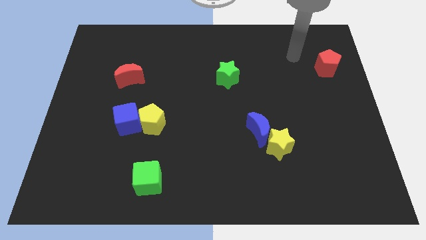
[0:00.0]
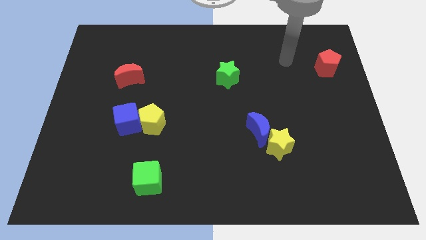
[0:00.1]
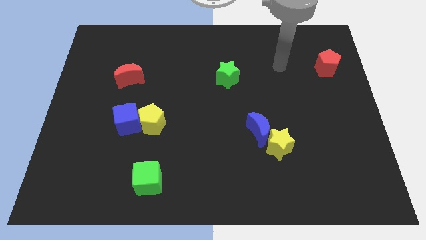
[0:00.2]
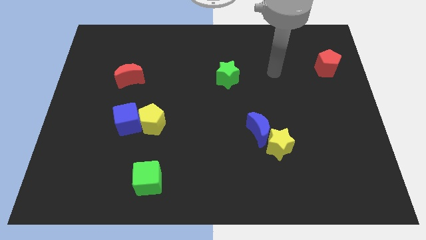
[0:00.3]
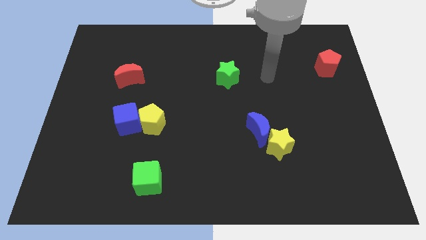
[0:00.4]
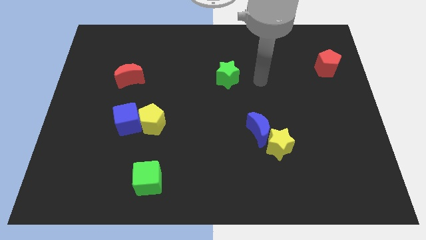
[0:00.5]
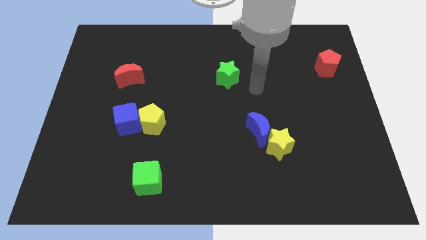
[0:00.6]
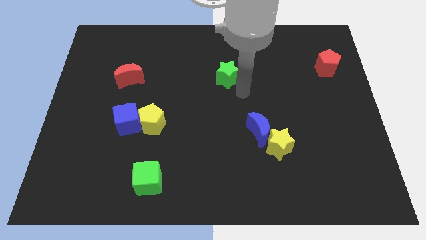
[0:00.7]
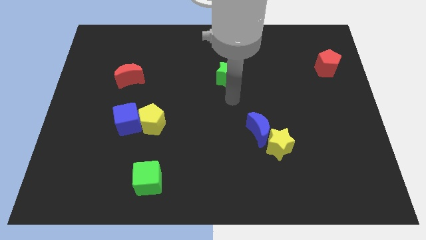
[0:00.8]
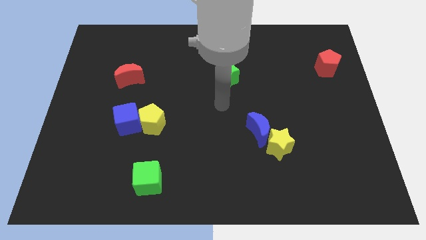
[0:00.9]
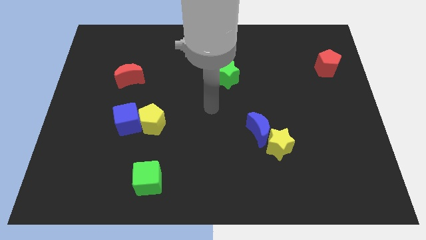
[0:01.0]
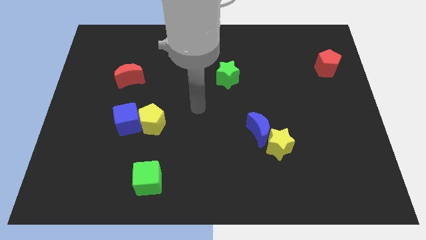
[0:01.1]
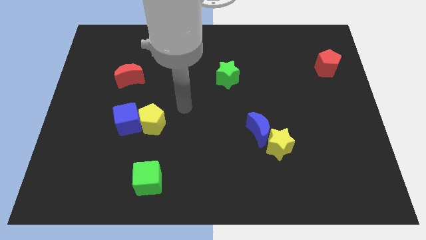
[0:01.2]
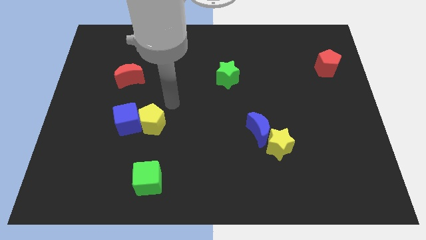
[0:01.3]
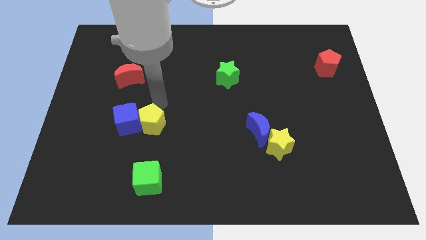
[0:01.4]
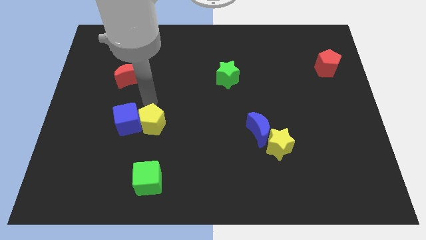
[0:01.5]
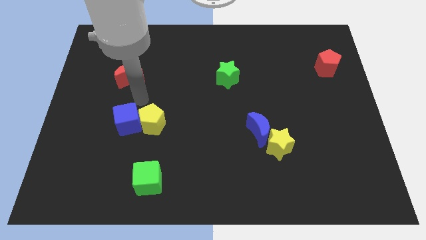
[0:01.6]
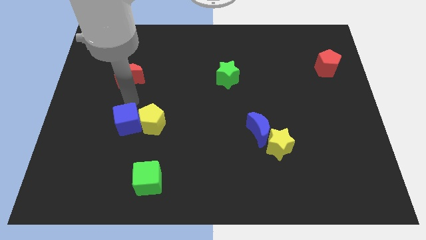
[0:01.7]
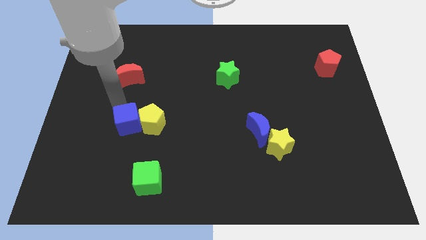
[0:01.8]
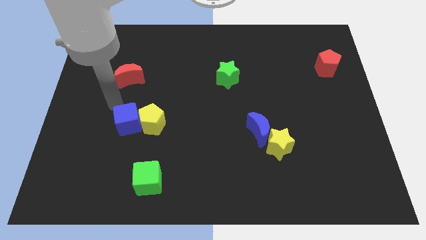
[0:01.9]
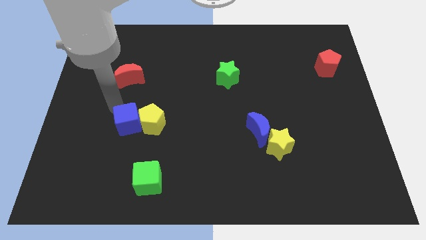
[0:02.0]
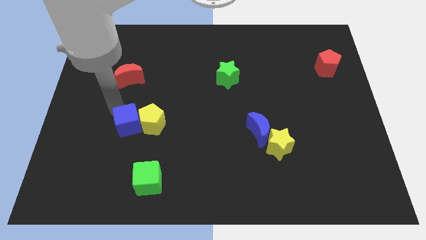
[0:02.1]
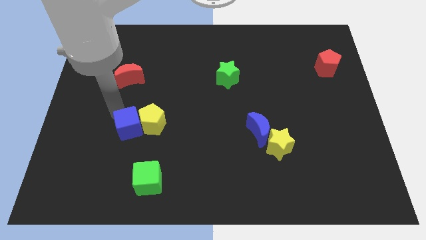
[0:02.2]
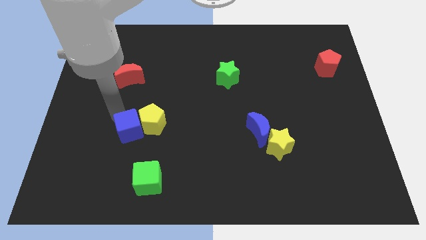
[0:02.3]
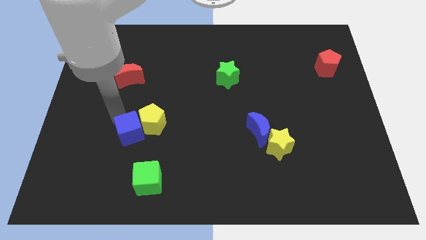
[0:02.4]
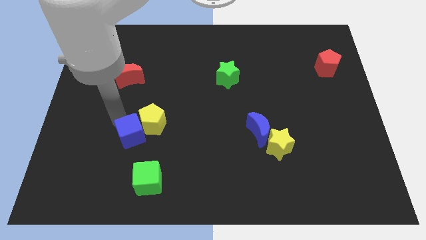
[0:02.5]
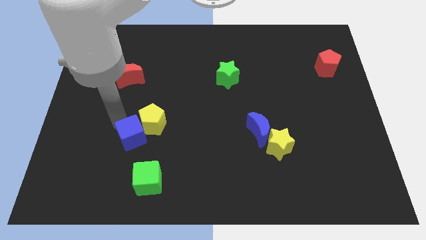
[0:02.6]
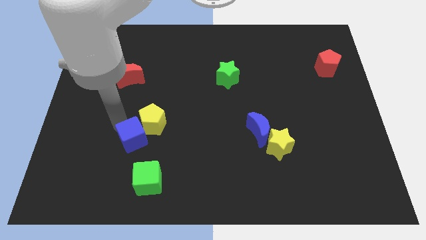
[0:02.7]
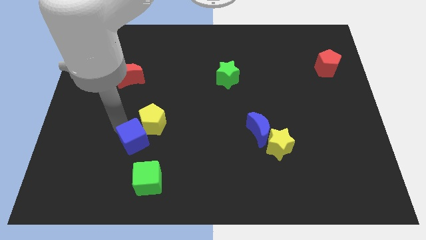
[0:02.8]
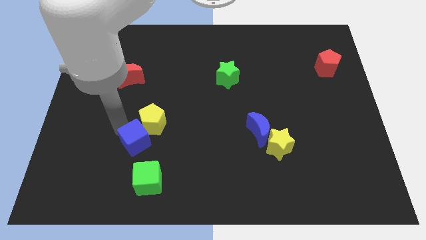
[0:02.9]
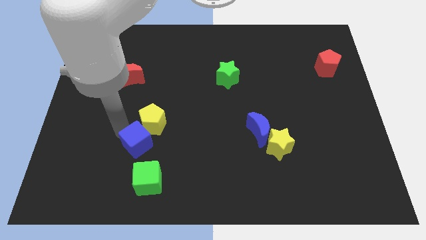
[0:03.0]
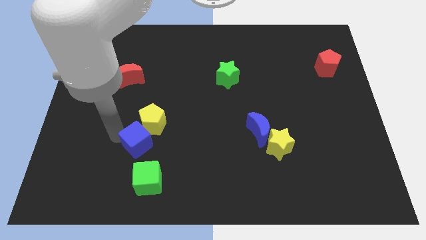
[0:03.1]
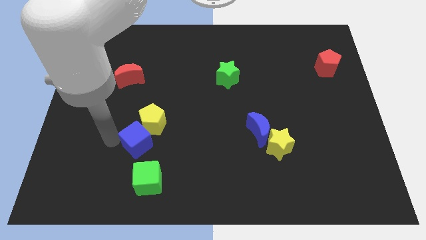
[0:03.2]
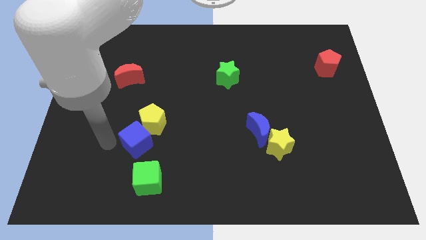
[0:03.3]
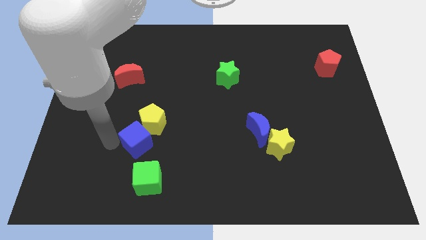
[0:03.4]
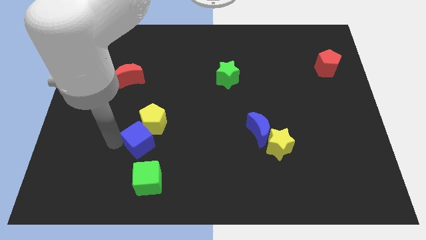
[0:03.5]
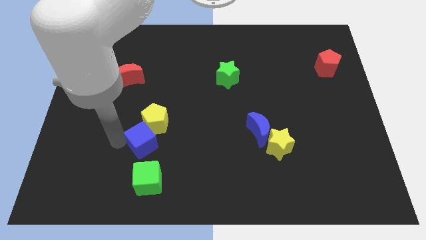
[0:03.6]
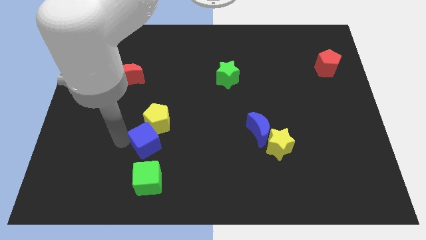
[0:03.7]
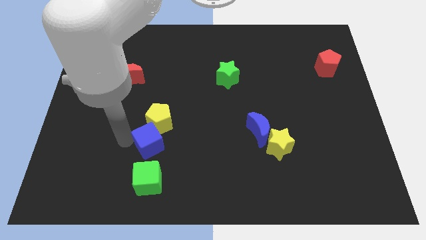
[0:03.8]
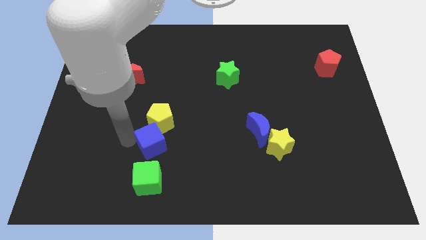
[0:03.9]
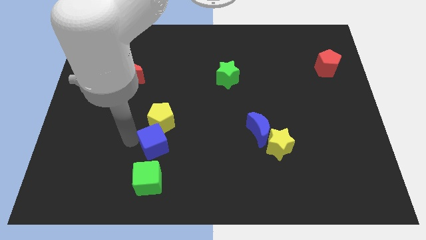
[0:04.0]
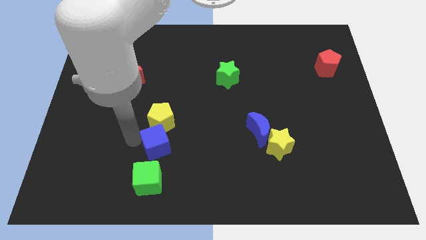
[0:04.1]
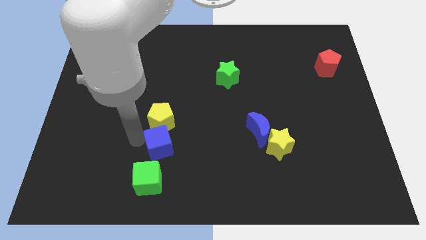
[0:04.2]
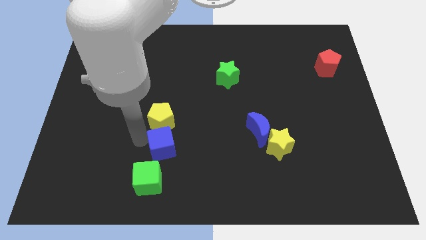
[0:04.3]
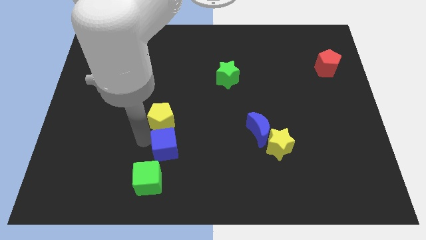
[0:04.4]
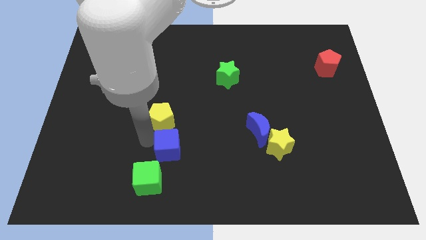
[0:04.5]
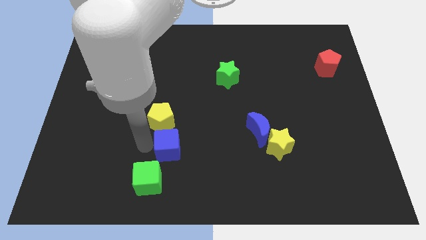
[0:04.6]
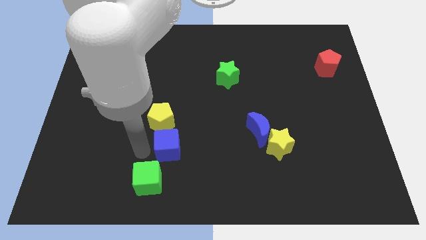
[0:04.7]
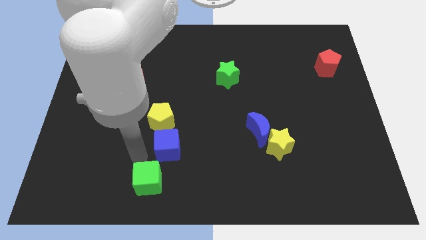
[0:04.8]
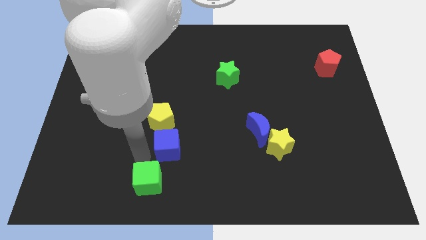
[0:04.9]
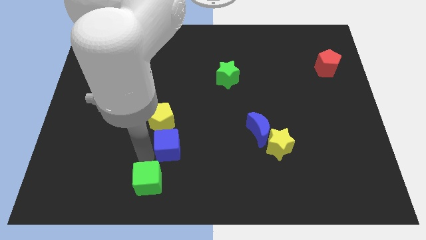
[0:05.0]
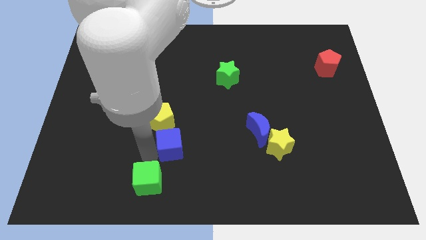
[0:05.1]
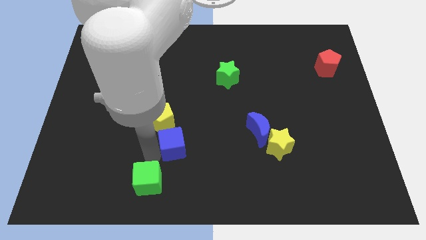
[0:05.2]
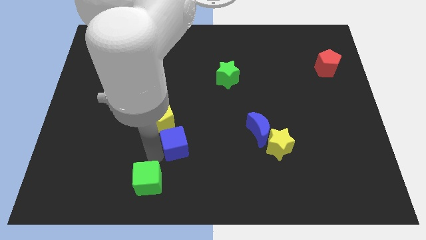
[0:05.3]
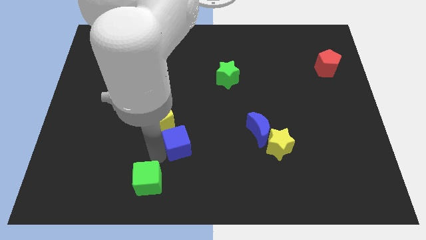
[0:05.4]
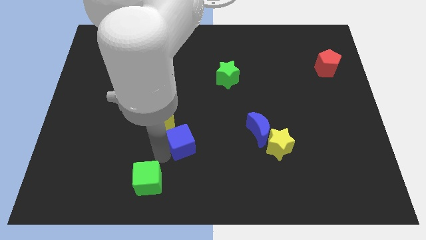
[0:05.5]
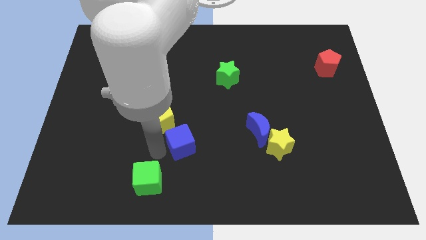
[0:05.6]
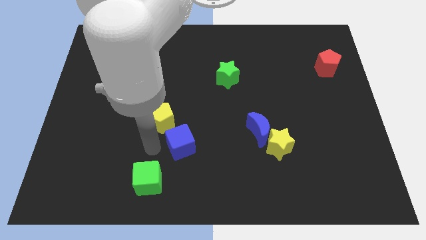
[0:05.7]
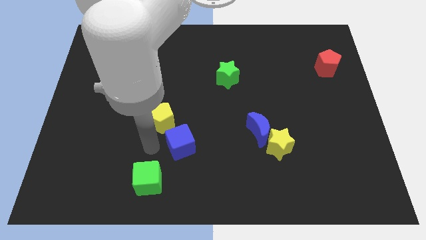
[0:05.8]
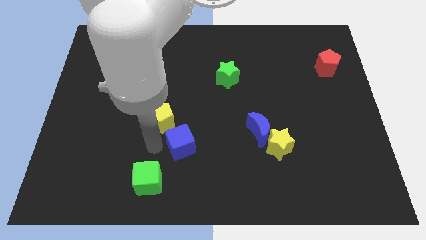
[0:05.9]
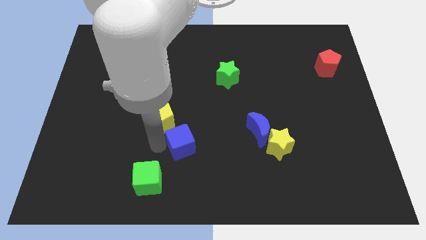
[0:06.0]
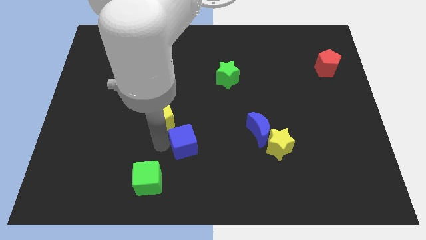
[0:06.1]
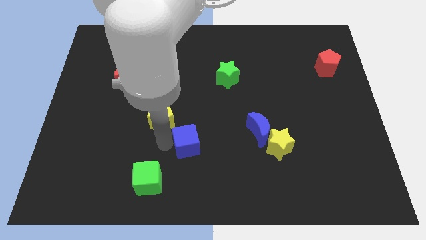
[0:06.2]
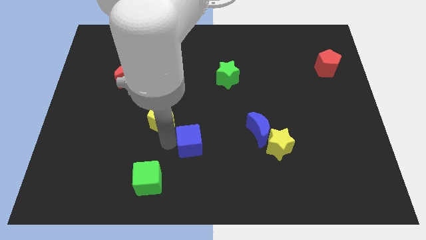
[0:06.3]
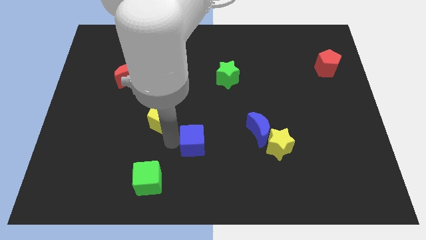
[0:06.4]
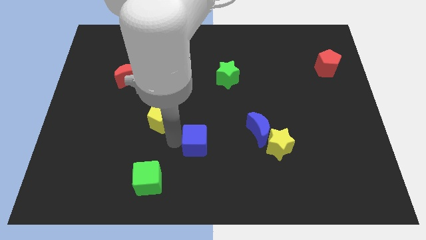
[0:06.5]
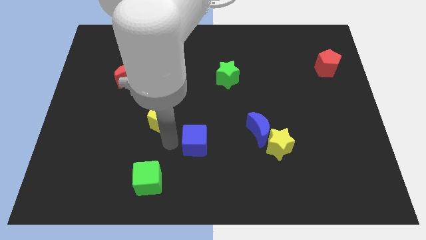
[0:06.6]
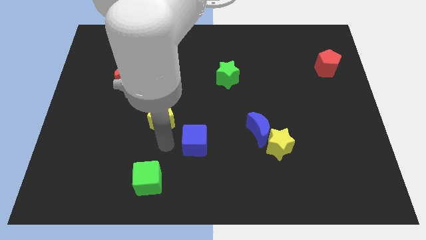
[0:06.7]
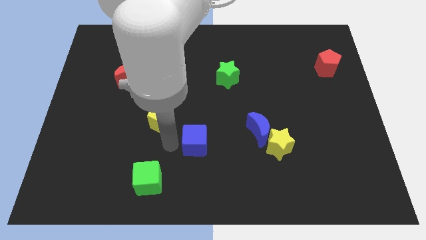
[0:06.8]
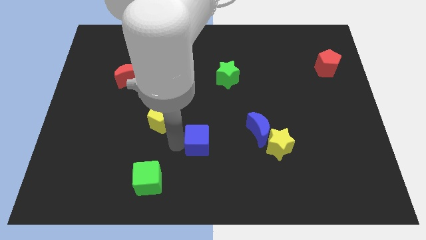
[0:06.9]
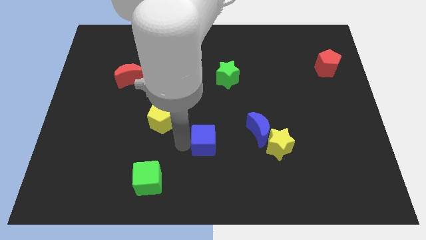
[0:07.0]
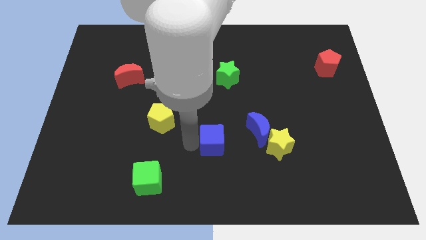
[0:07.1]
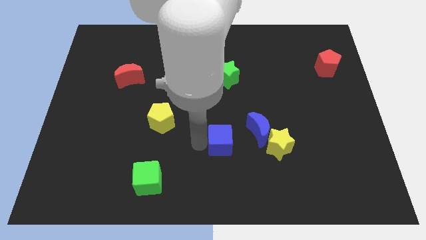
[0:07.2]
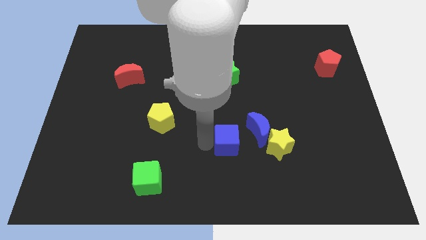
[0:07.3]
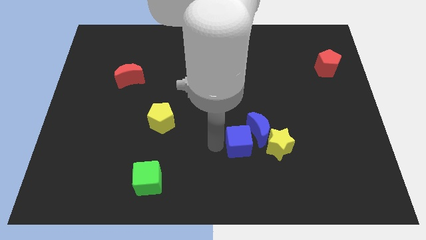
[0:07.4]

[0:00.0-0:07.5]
push the blue cube close to the blue moon
